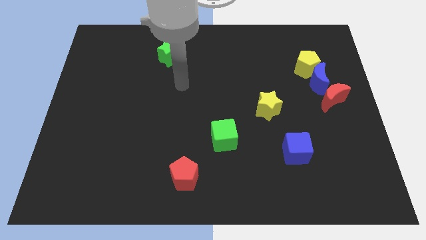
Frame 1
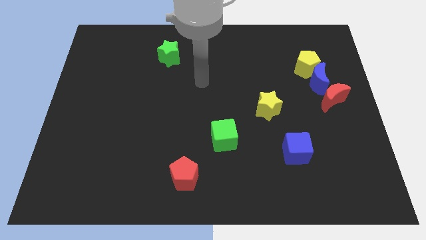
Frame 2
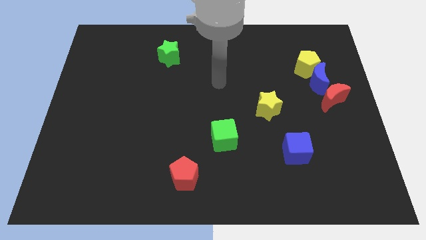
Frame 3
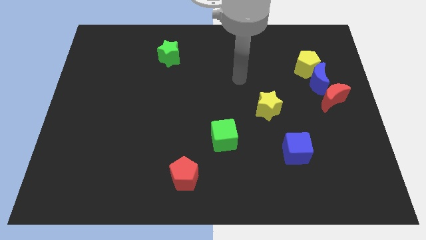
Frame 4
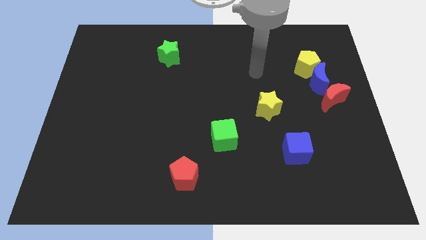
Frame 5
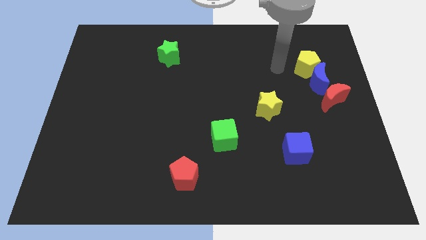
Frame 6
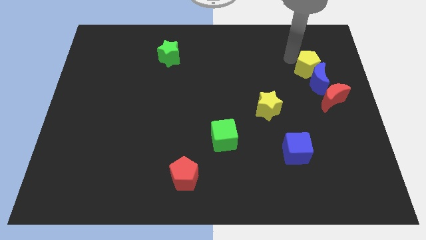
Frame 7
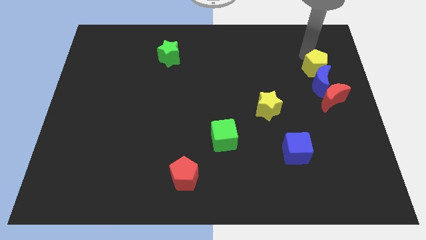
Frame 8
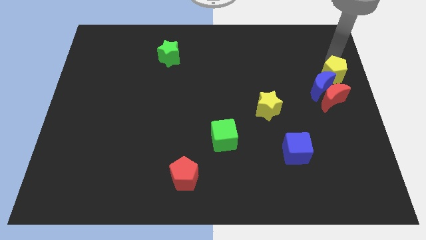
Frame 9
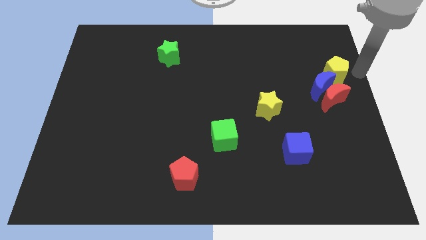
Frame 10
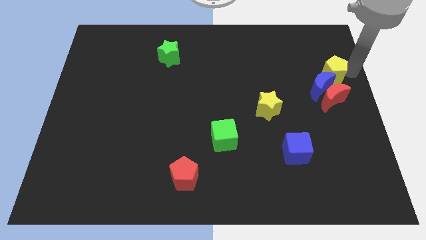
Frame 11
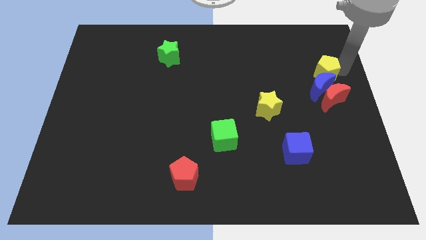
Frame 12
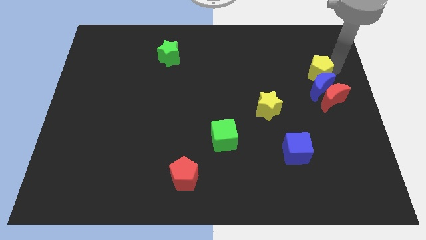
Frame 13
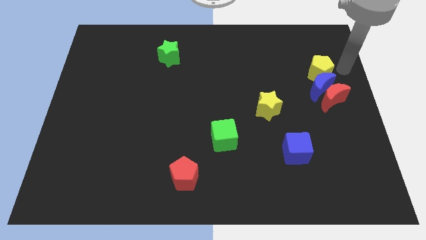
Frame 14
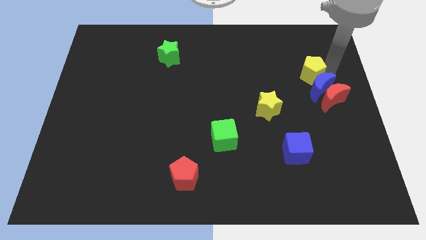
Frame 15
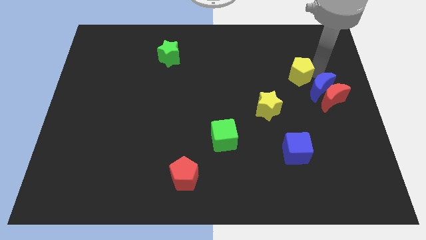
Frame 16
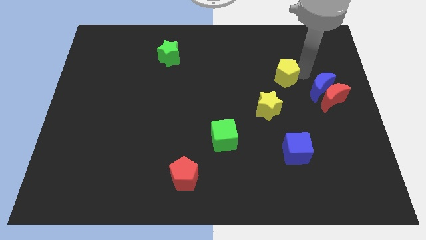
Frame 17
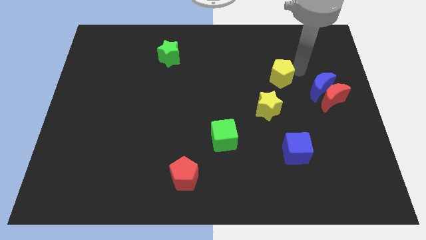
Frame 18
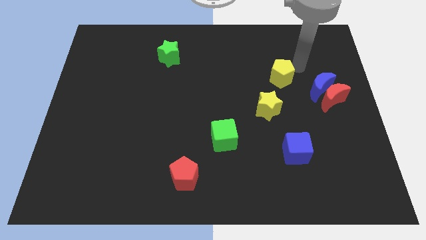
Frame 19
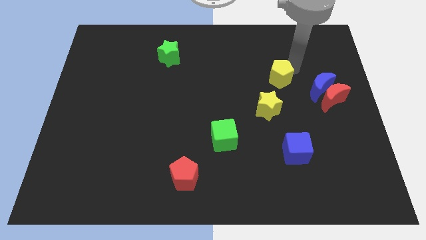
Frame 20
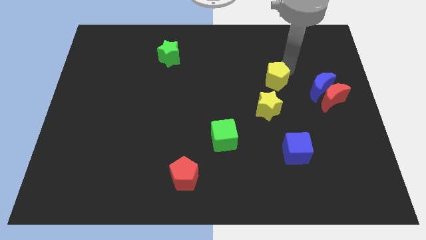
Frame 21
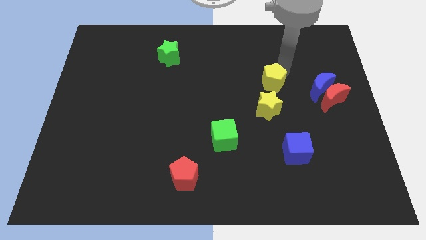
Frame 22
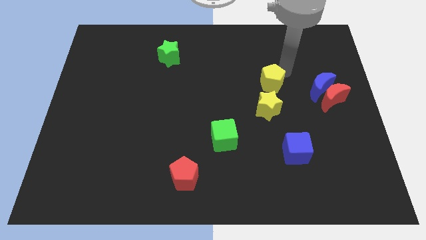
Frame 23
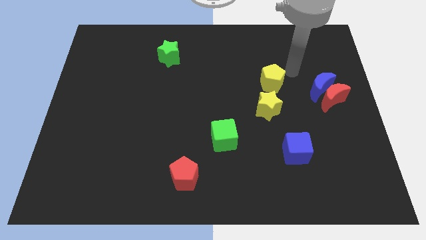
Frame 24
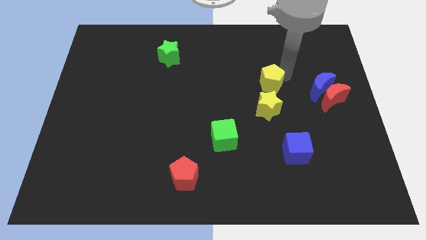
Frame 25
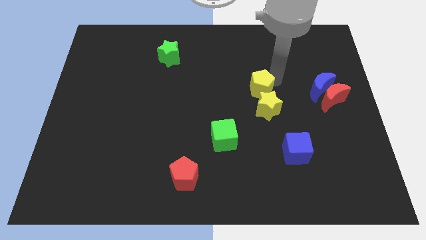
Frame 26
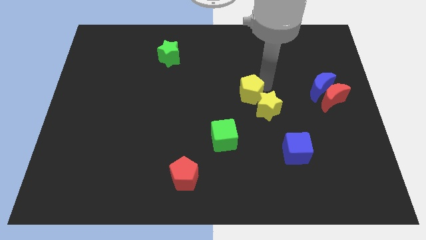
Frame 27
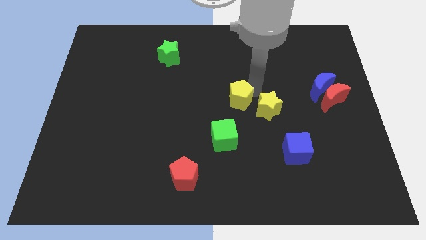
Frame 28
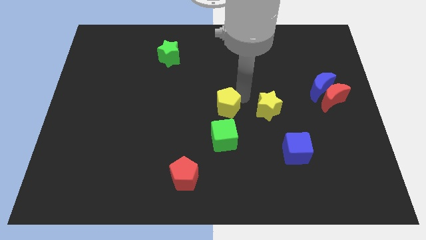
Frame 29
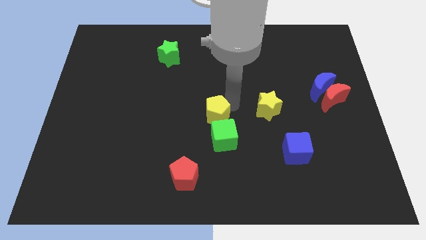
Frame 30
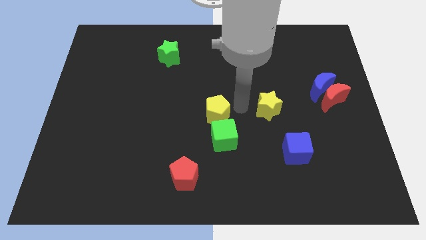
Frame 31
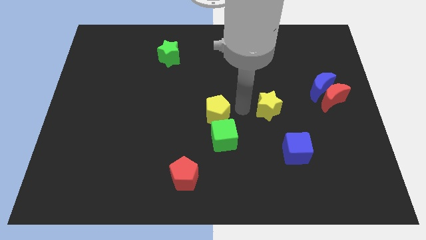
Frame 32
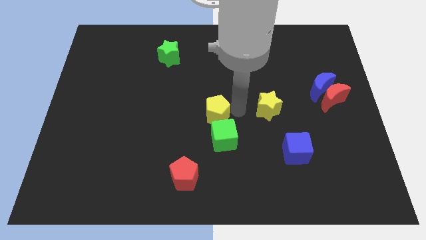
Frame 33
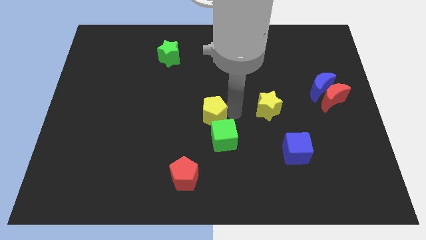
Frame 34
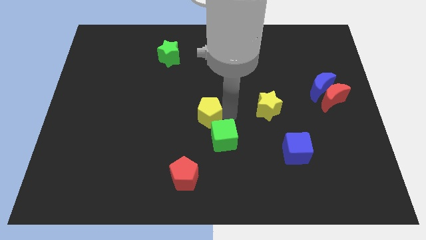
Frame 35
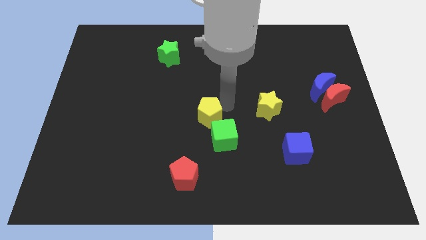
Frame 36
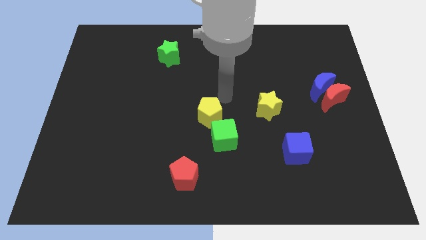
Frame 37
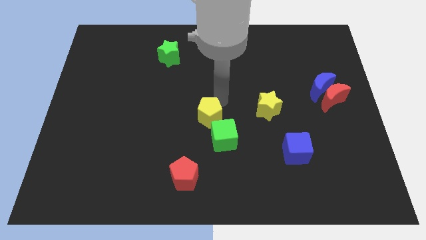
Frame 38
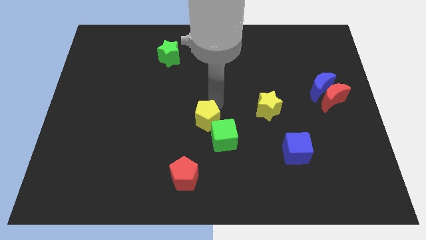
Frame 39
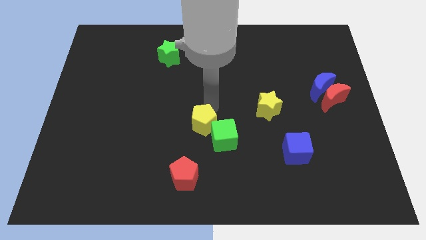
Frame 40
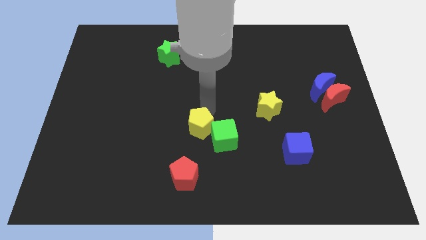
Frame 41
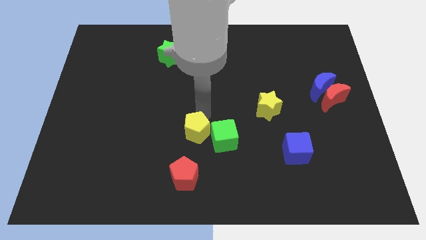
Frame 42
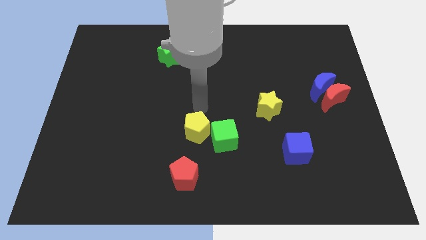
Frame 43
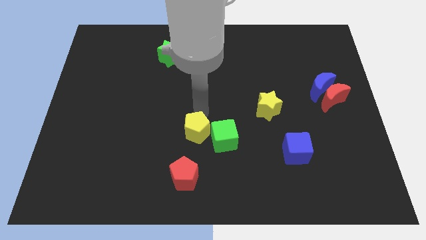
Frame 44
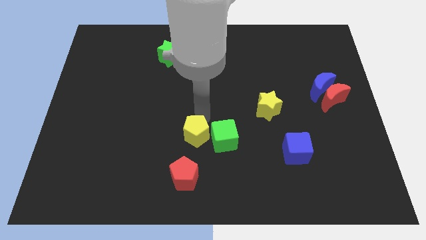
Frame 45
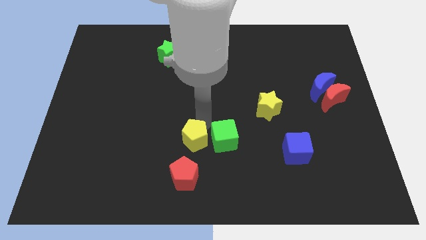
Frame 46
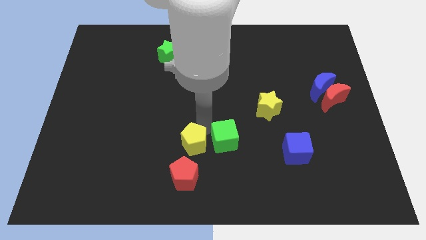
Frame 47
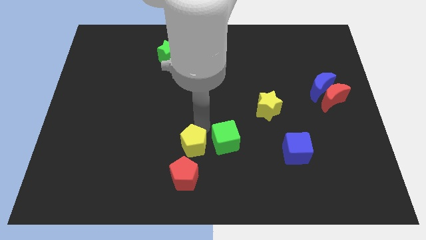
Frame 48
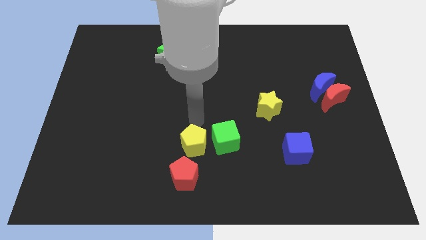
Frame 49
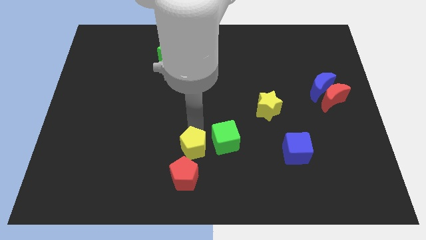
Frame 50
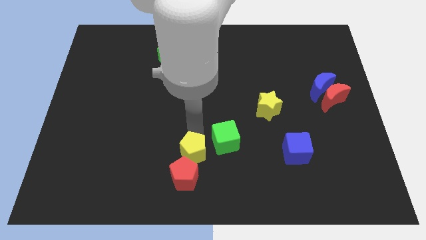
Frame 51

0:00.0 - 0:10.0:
push the yellow pentagon next to the red pentagon

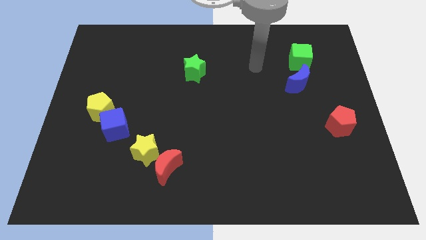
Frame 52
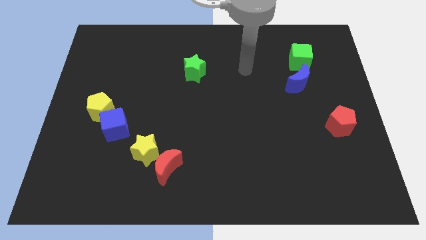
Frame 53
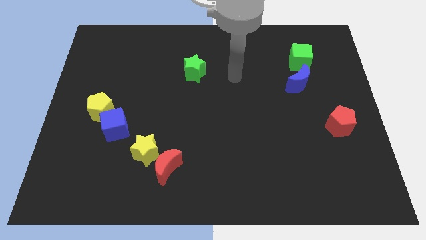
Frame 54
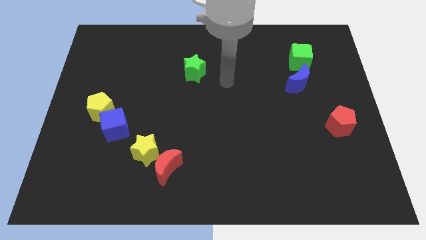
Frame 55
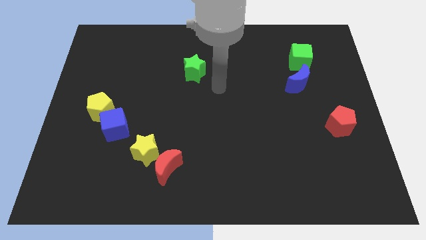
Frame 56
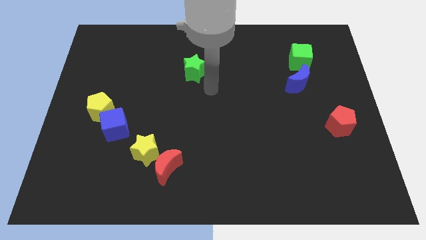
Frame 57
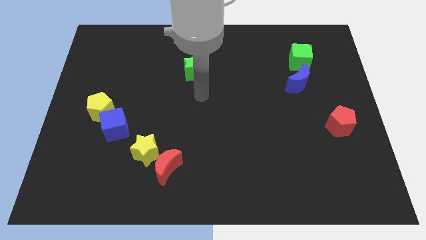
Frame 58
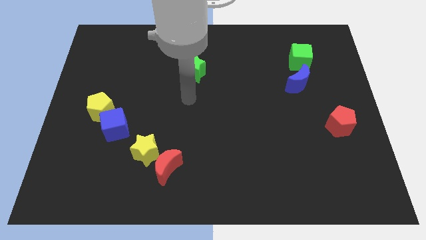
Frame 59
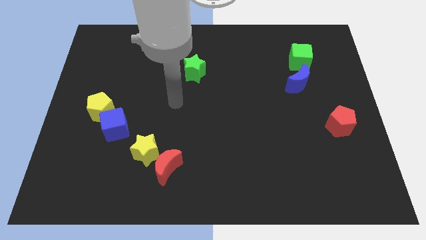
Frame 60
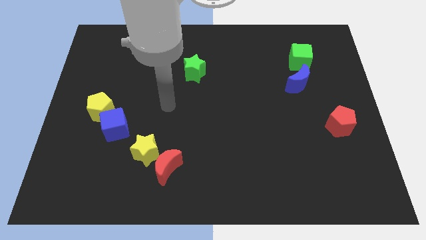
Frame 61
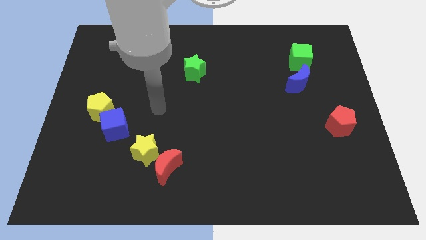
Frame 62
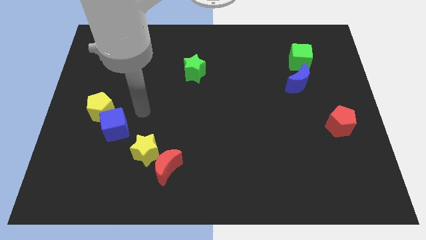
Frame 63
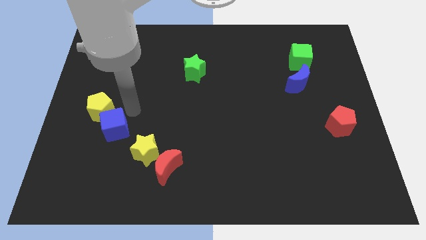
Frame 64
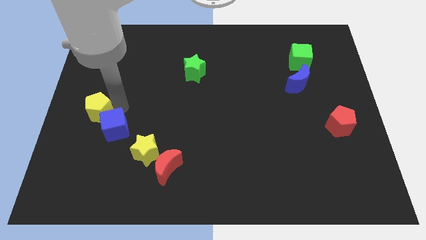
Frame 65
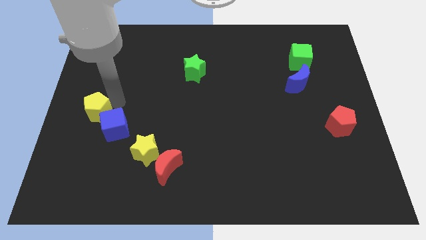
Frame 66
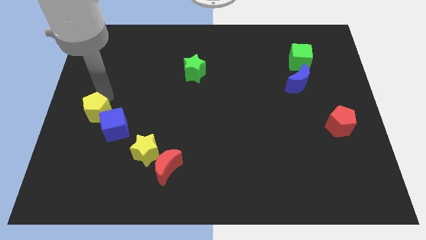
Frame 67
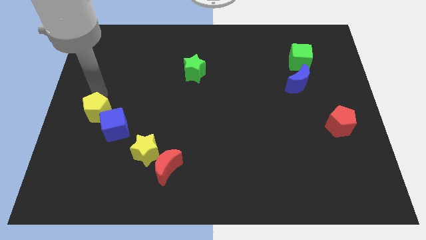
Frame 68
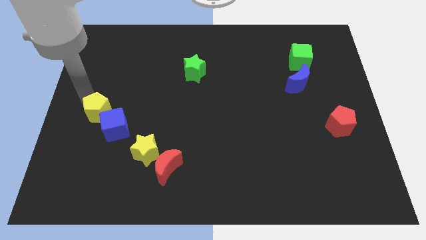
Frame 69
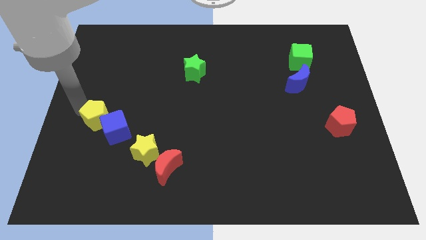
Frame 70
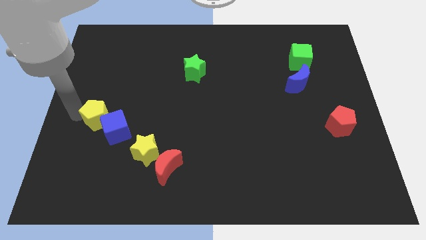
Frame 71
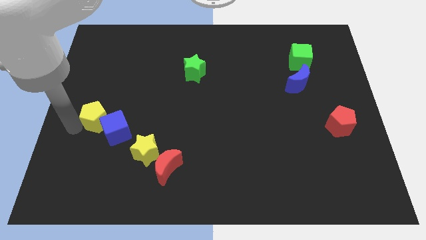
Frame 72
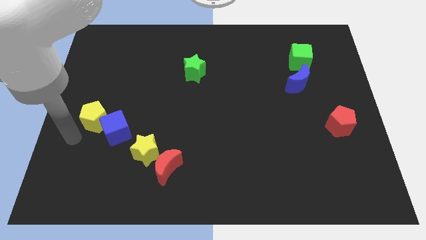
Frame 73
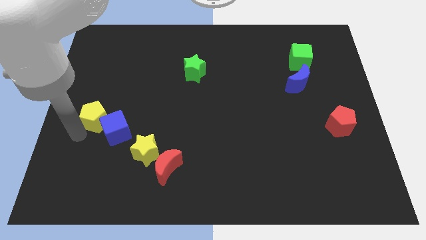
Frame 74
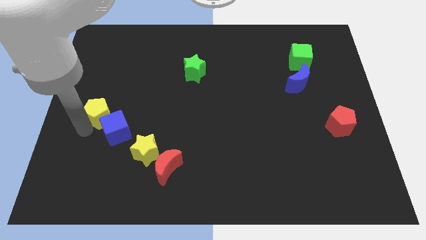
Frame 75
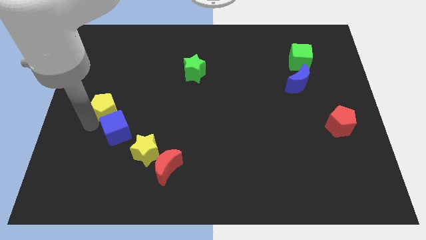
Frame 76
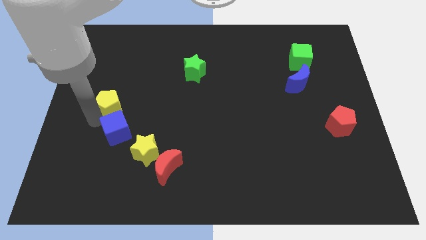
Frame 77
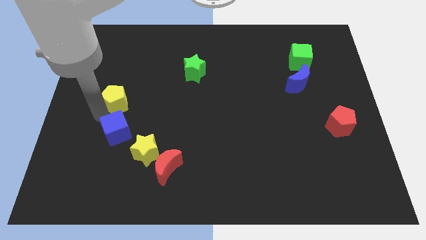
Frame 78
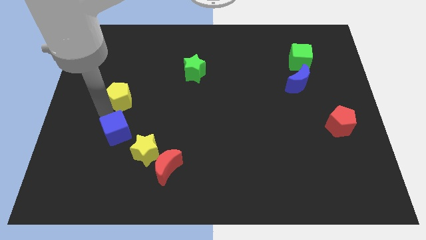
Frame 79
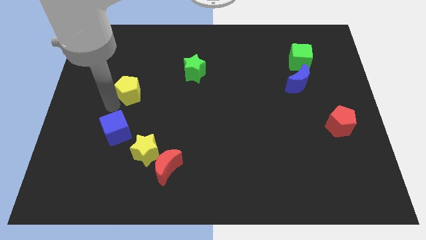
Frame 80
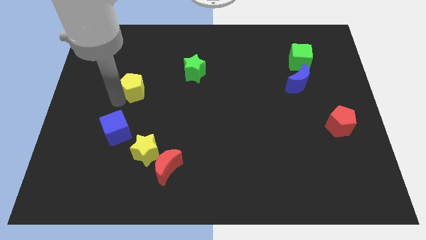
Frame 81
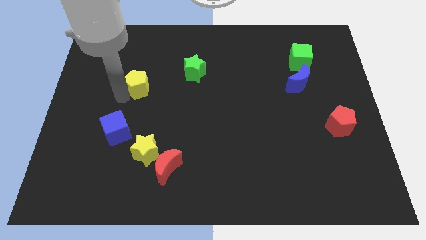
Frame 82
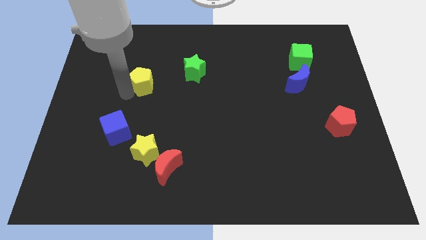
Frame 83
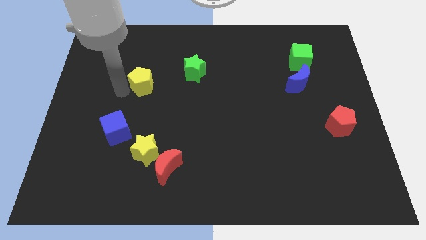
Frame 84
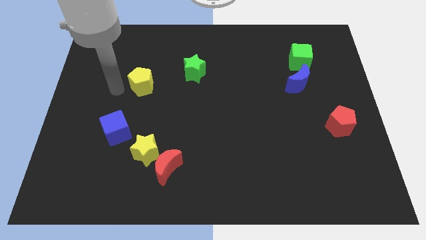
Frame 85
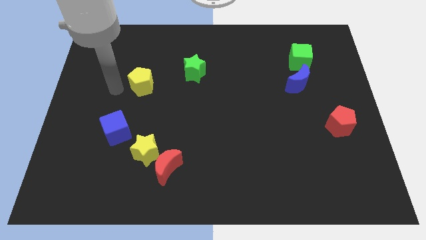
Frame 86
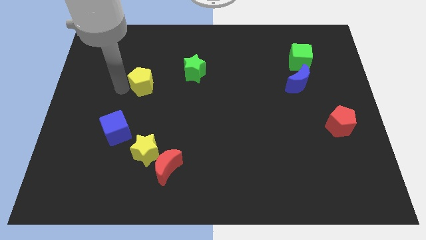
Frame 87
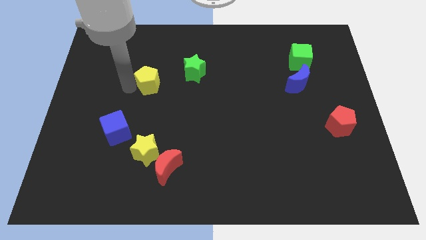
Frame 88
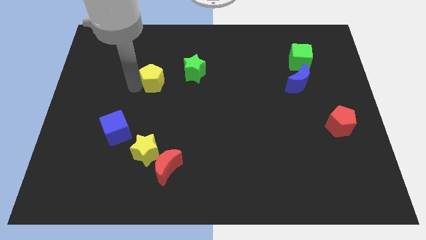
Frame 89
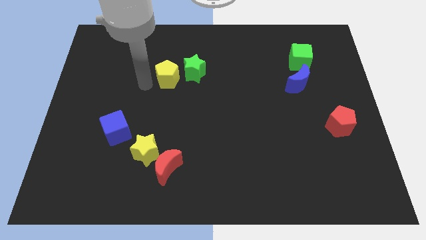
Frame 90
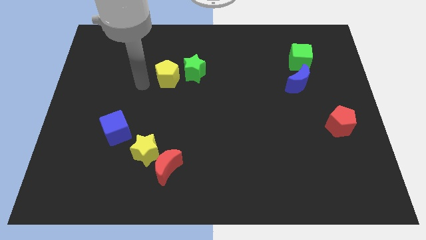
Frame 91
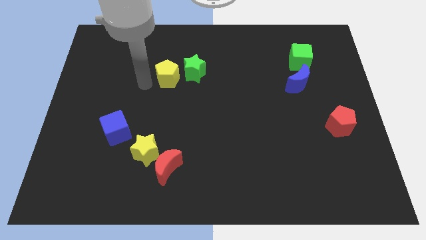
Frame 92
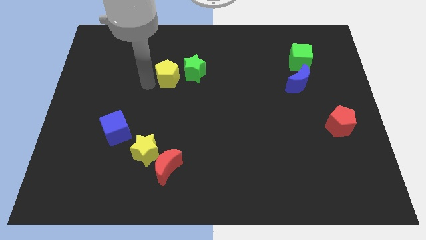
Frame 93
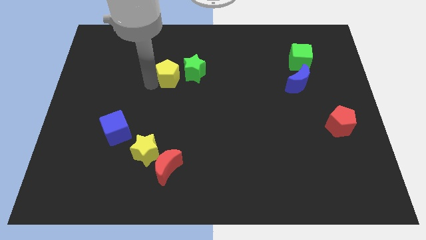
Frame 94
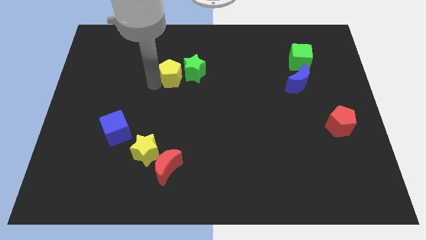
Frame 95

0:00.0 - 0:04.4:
move the yellow pentagon next to the green star
